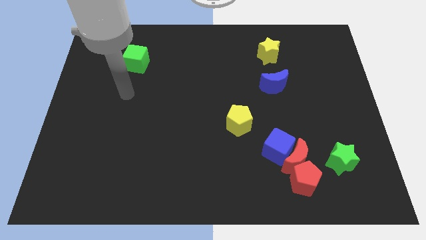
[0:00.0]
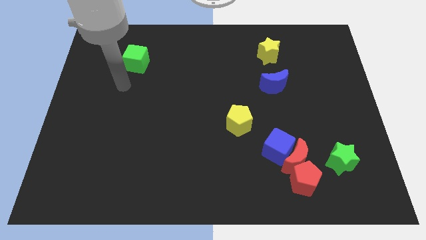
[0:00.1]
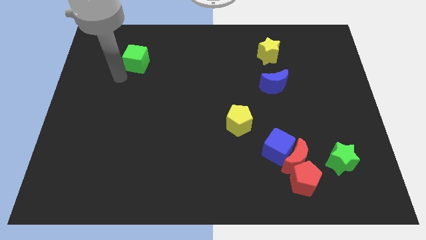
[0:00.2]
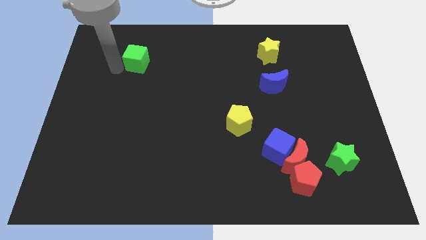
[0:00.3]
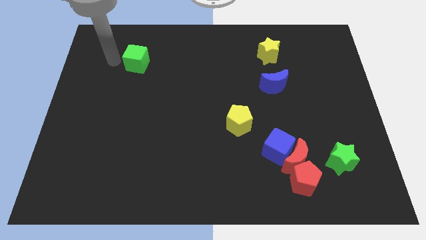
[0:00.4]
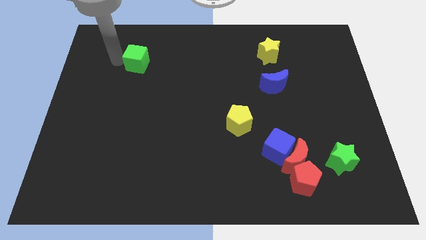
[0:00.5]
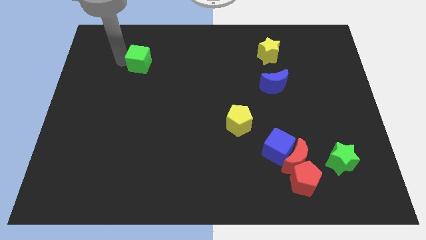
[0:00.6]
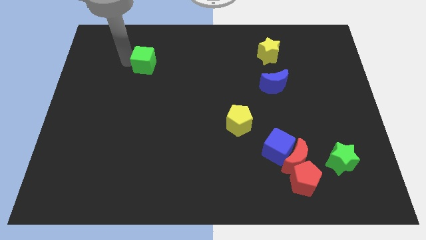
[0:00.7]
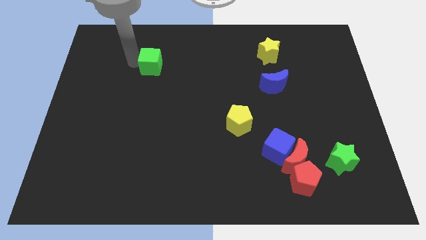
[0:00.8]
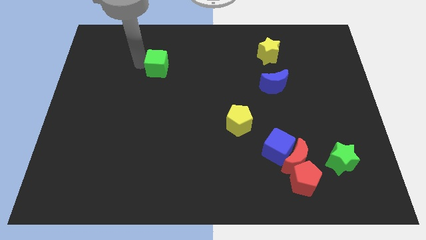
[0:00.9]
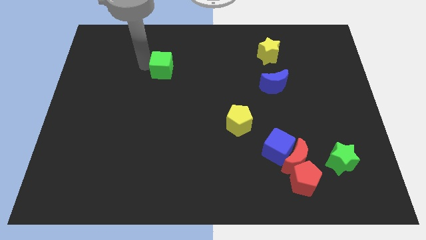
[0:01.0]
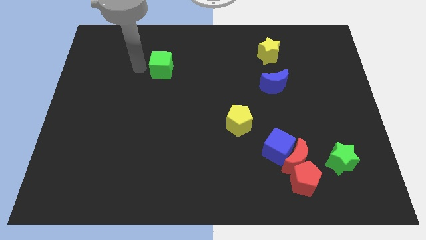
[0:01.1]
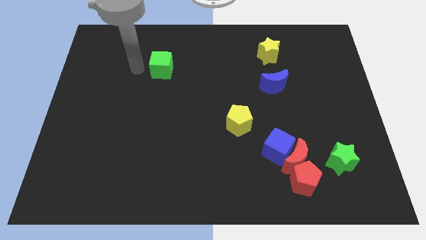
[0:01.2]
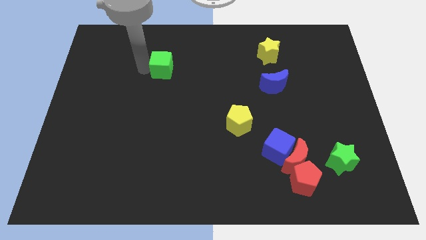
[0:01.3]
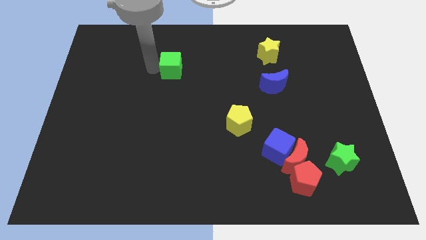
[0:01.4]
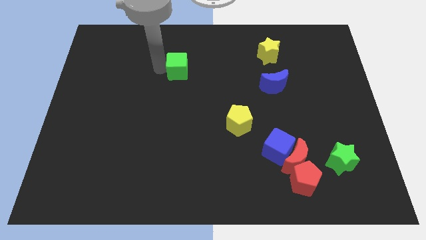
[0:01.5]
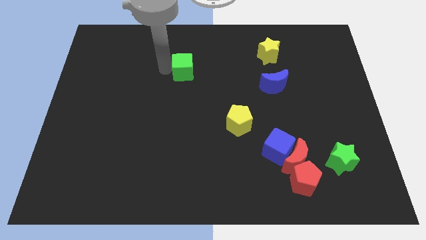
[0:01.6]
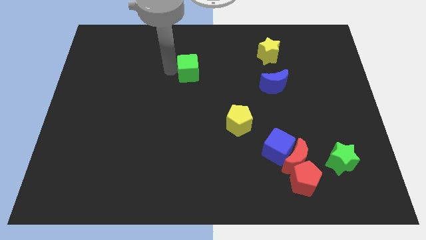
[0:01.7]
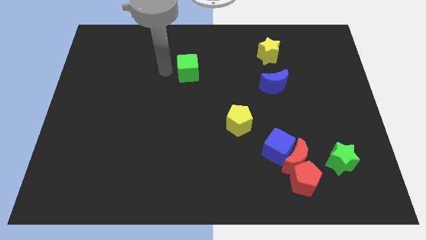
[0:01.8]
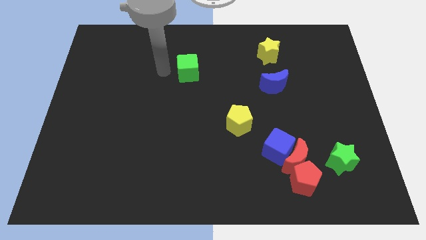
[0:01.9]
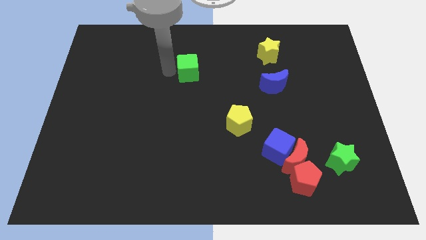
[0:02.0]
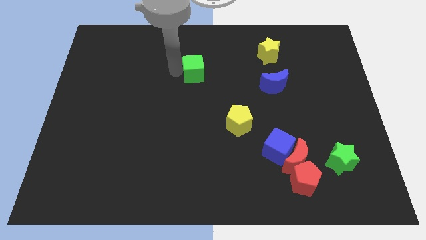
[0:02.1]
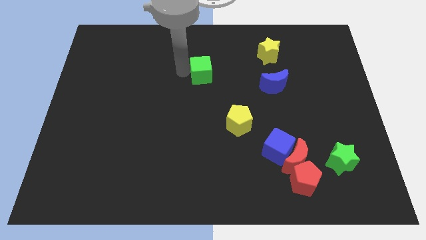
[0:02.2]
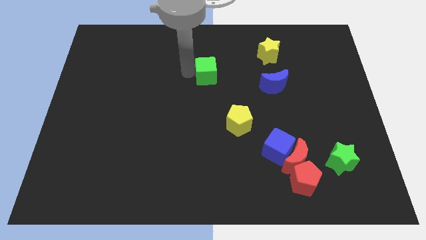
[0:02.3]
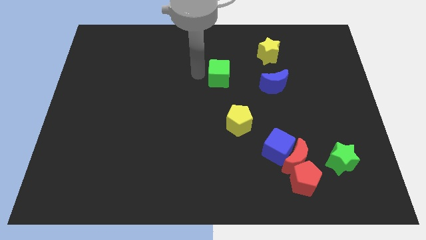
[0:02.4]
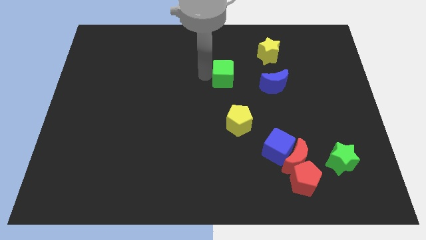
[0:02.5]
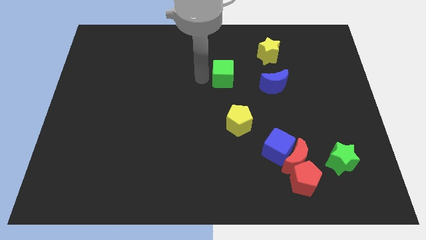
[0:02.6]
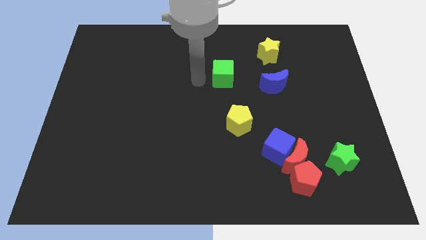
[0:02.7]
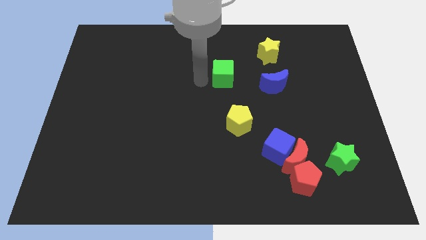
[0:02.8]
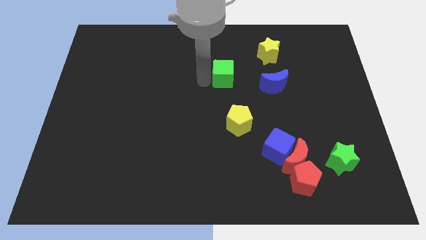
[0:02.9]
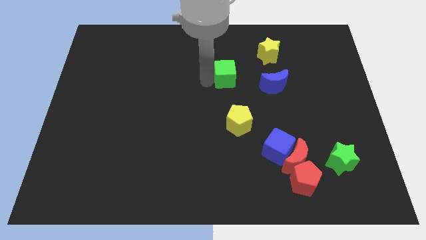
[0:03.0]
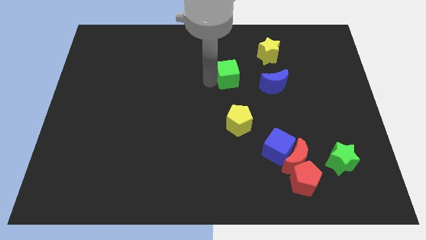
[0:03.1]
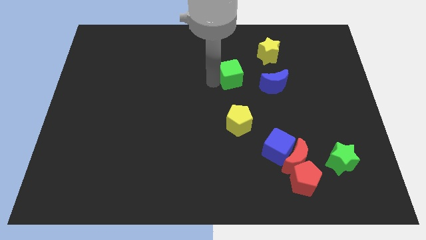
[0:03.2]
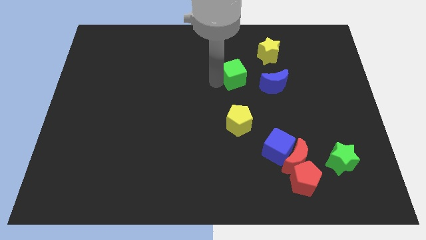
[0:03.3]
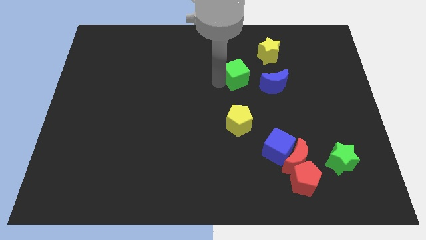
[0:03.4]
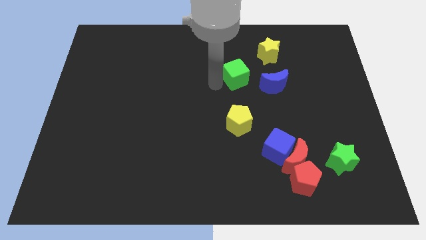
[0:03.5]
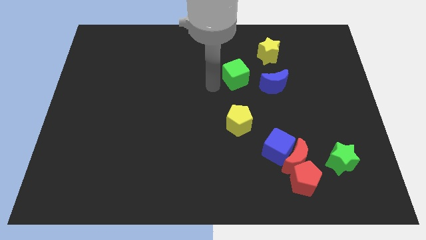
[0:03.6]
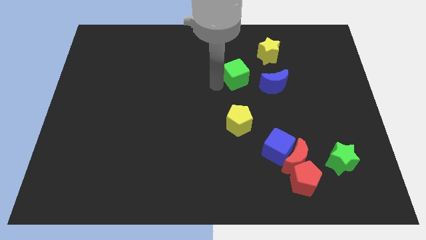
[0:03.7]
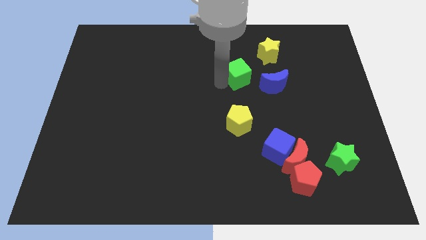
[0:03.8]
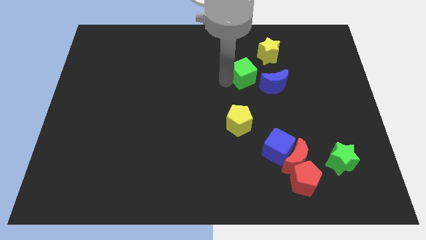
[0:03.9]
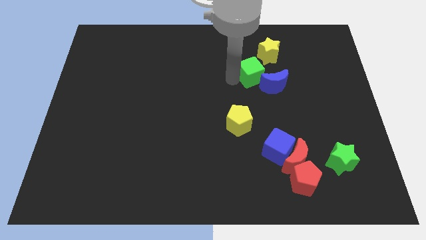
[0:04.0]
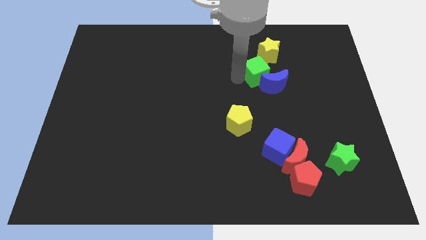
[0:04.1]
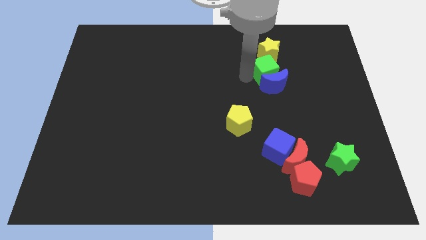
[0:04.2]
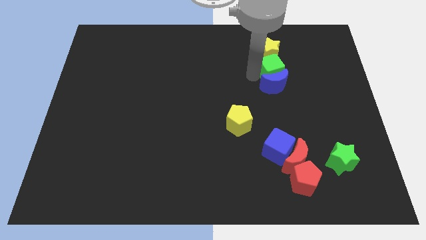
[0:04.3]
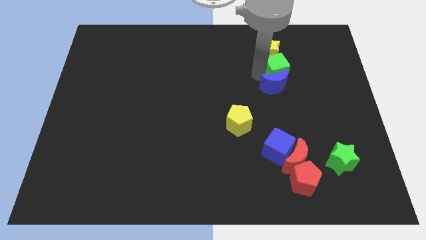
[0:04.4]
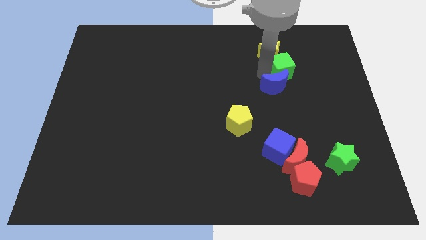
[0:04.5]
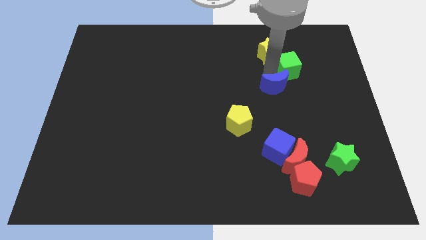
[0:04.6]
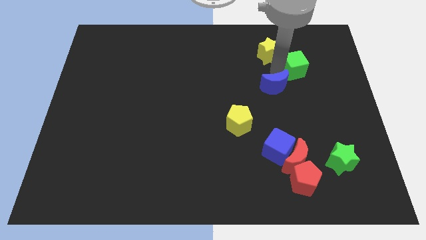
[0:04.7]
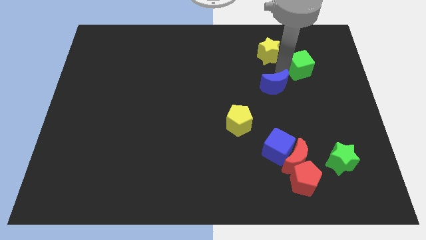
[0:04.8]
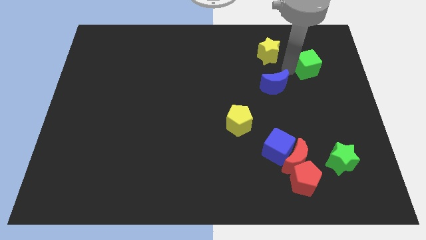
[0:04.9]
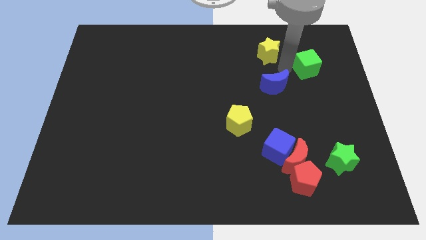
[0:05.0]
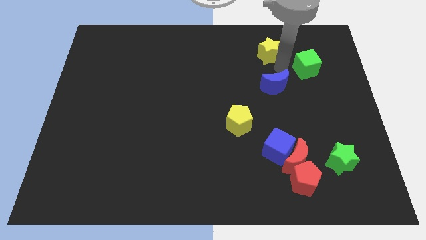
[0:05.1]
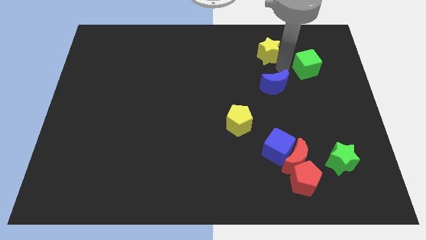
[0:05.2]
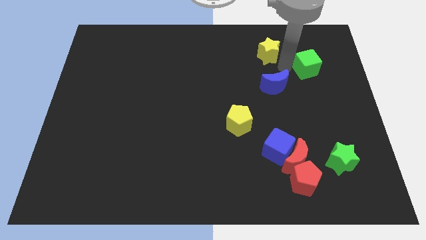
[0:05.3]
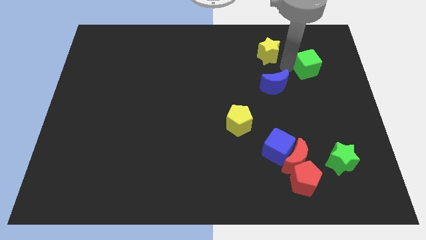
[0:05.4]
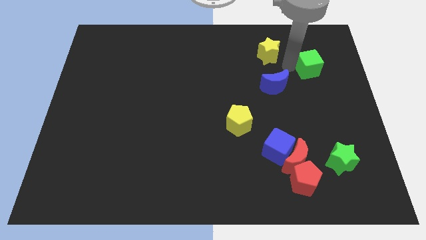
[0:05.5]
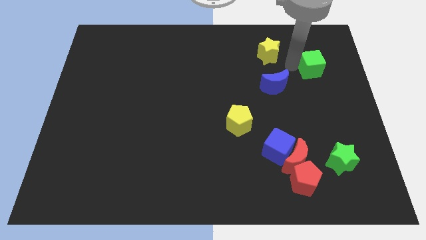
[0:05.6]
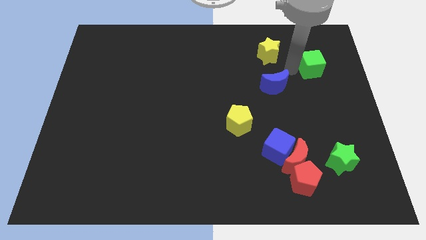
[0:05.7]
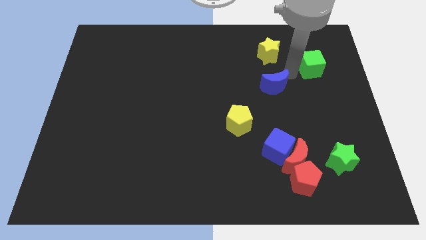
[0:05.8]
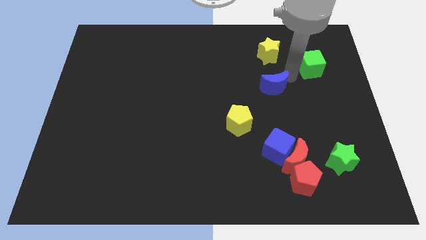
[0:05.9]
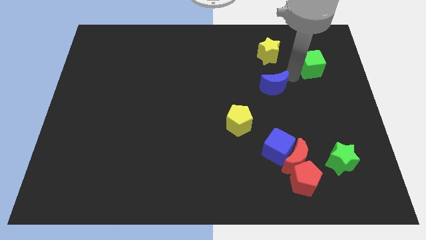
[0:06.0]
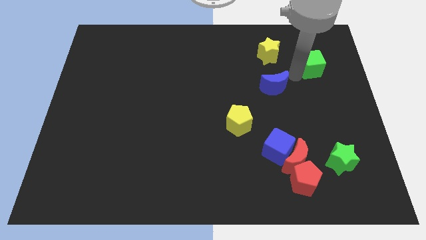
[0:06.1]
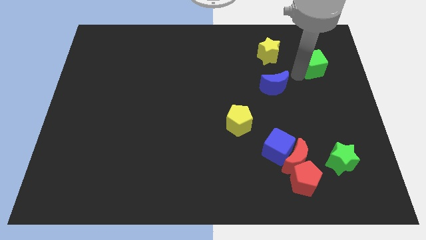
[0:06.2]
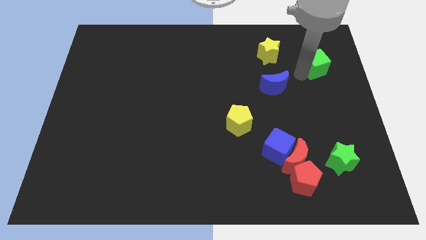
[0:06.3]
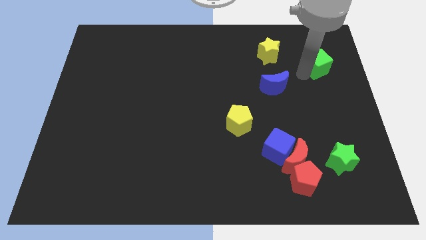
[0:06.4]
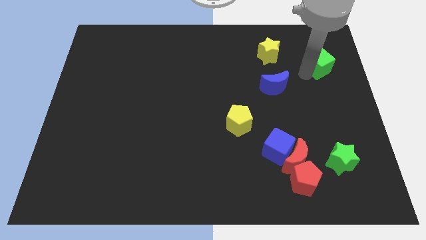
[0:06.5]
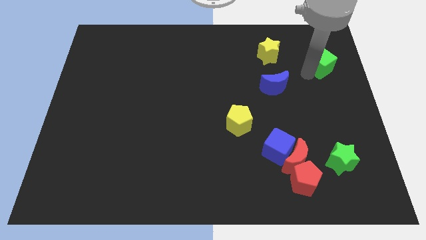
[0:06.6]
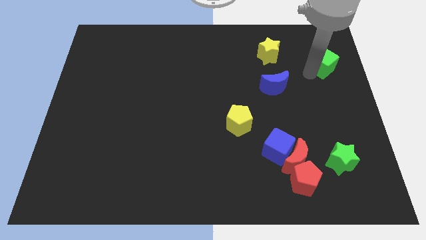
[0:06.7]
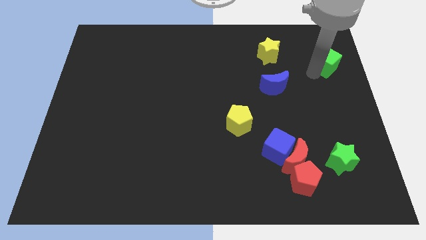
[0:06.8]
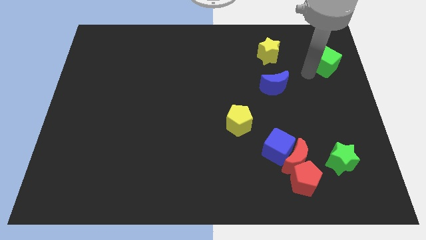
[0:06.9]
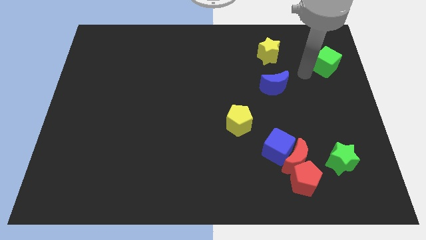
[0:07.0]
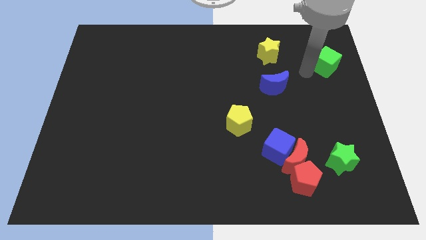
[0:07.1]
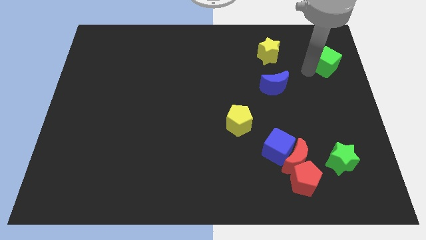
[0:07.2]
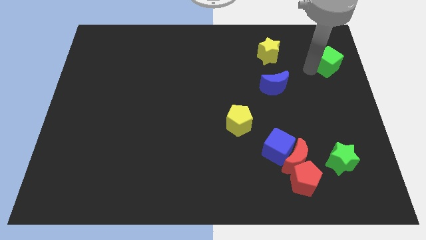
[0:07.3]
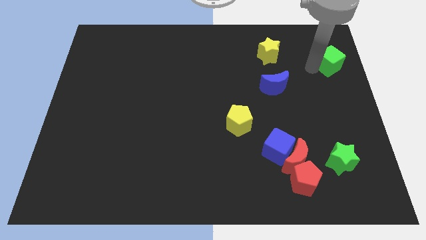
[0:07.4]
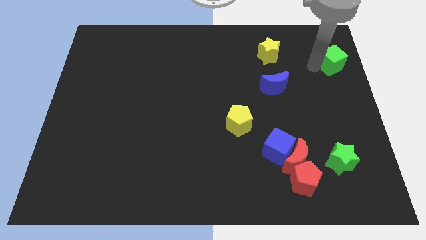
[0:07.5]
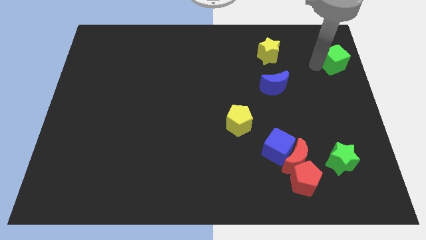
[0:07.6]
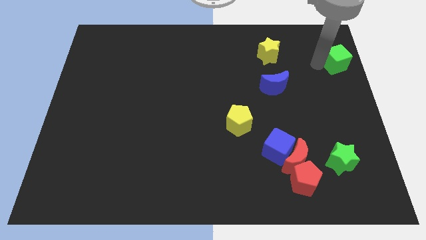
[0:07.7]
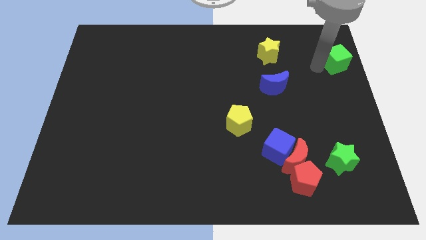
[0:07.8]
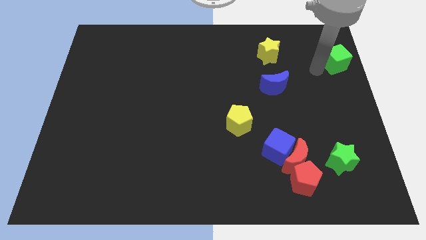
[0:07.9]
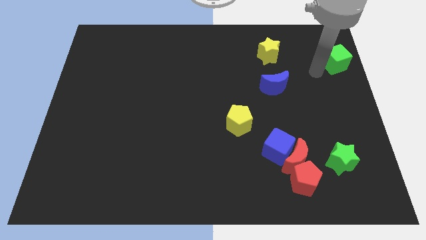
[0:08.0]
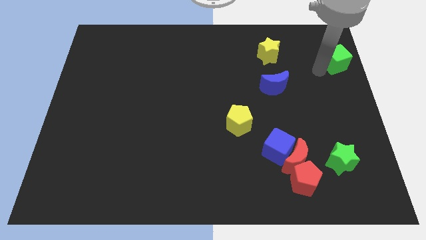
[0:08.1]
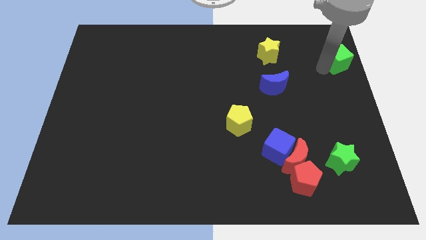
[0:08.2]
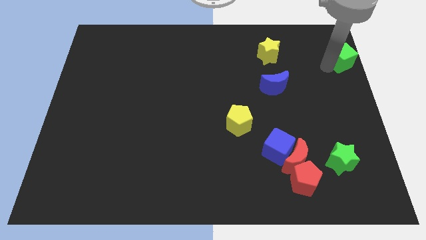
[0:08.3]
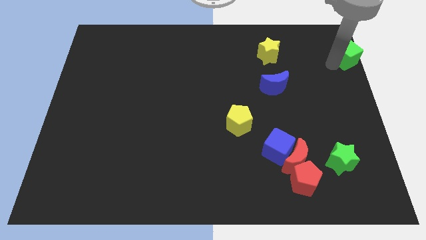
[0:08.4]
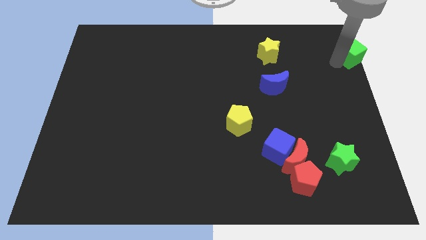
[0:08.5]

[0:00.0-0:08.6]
slide the green cube to the top right corner
